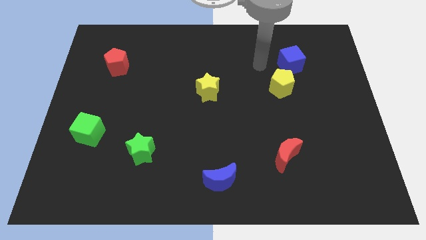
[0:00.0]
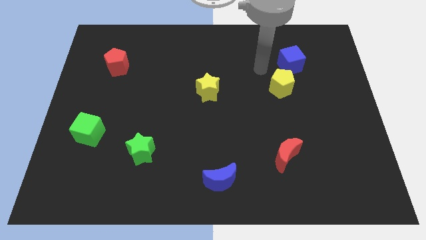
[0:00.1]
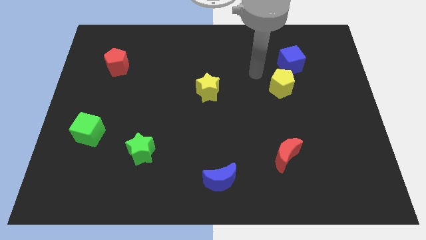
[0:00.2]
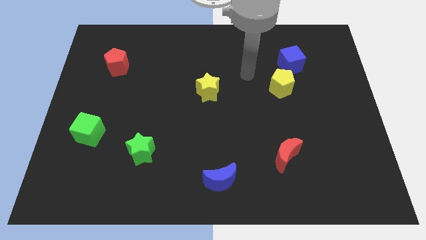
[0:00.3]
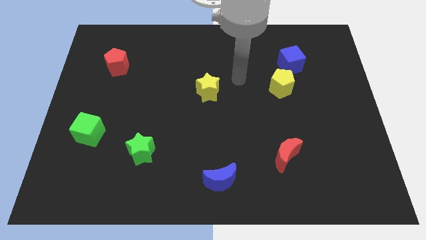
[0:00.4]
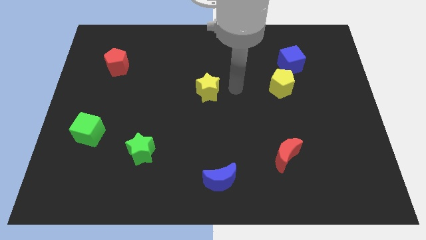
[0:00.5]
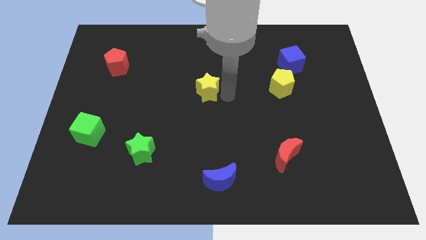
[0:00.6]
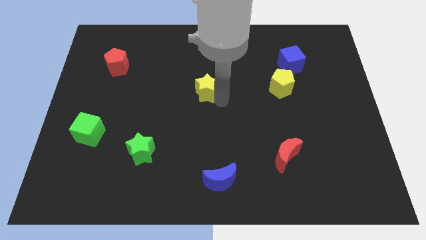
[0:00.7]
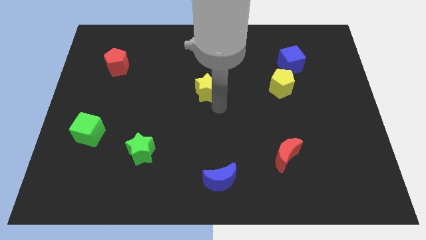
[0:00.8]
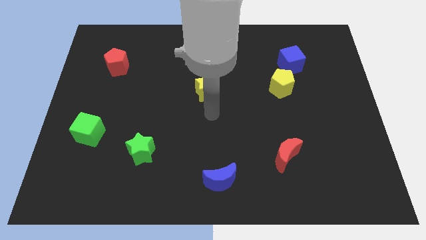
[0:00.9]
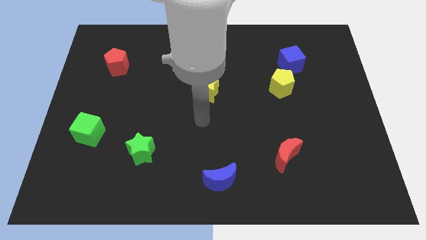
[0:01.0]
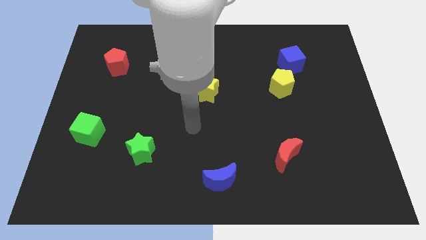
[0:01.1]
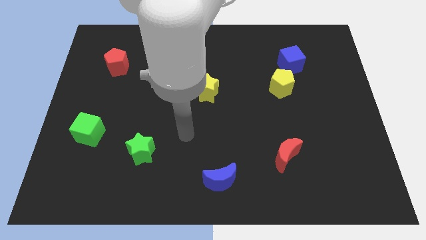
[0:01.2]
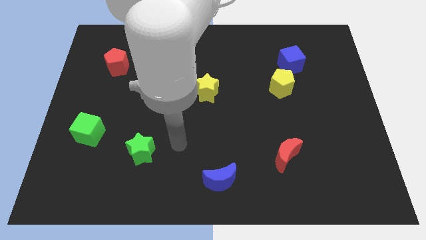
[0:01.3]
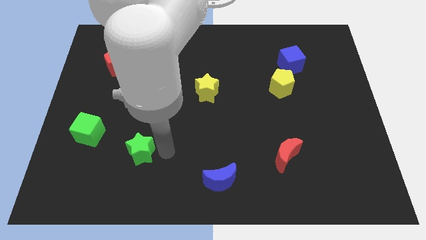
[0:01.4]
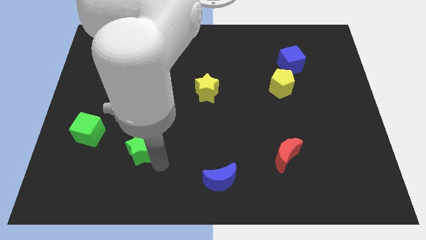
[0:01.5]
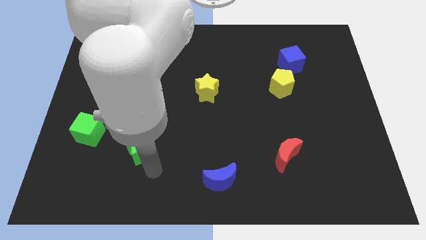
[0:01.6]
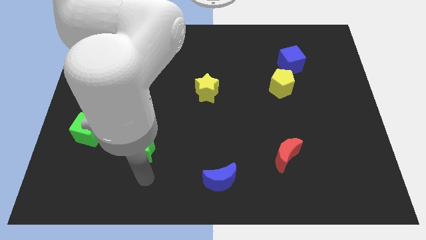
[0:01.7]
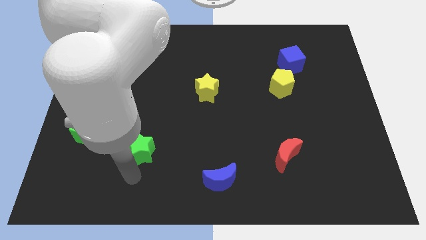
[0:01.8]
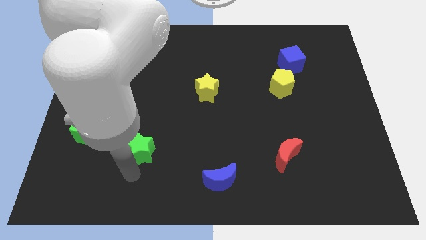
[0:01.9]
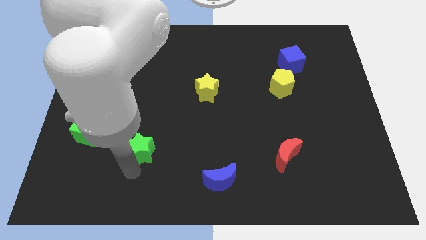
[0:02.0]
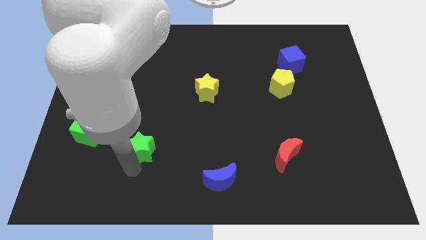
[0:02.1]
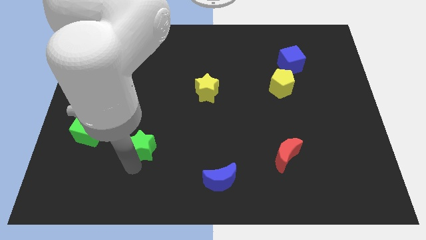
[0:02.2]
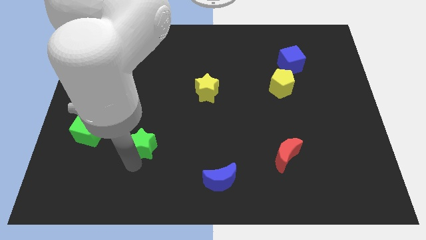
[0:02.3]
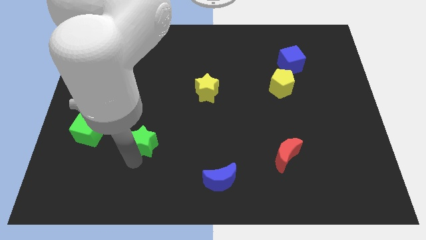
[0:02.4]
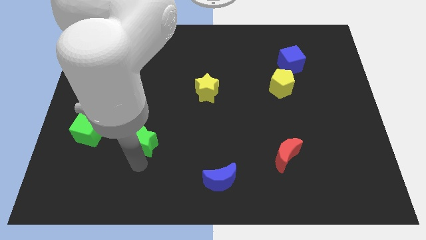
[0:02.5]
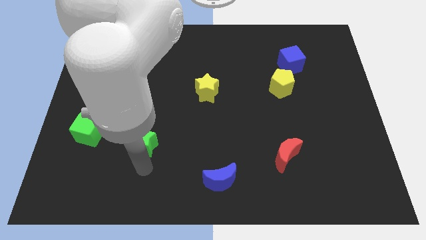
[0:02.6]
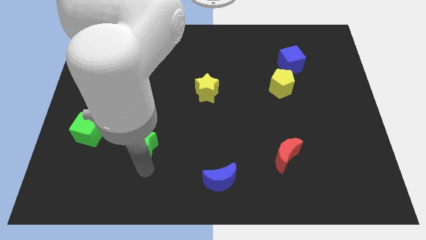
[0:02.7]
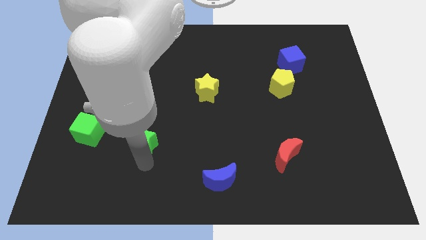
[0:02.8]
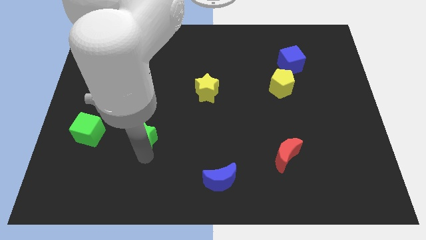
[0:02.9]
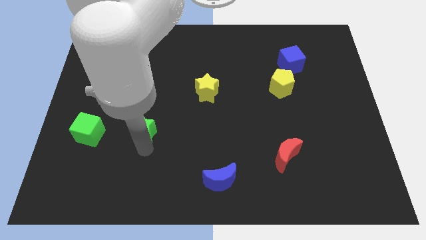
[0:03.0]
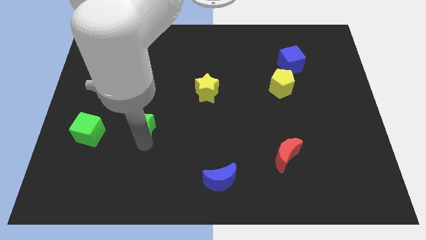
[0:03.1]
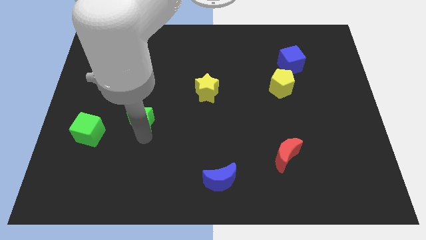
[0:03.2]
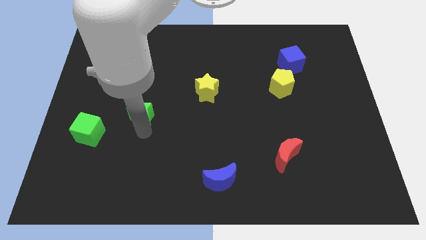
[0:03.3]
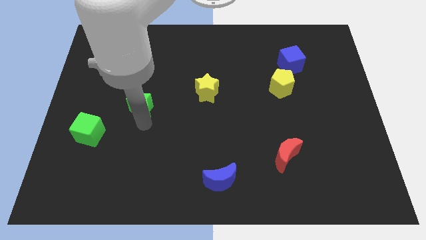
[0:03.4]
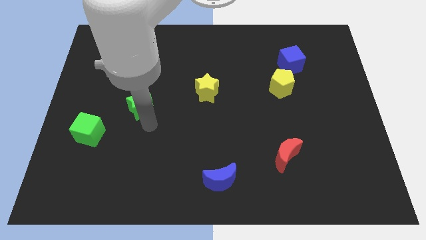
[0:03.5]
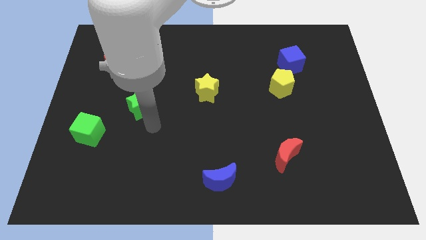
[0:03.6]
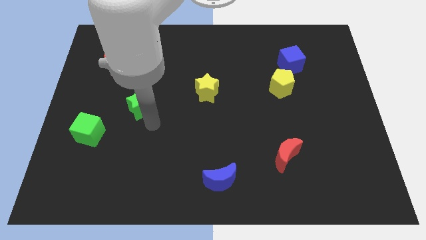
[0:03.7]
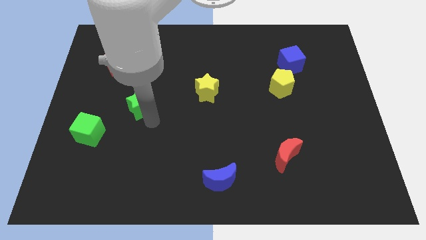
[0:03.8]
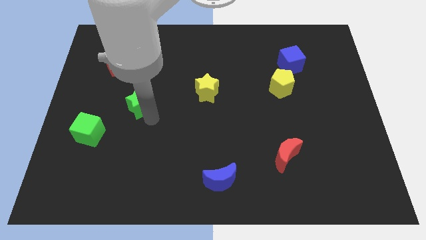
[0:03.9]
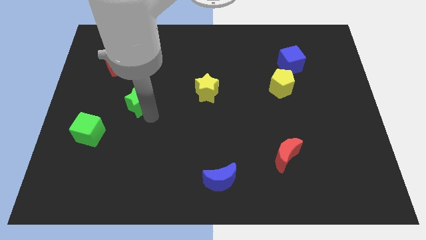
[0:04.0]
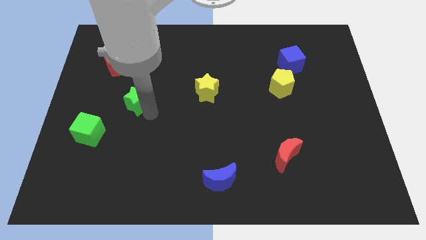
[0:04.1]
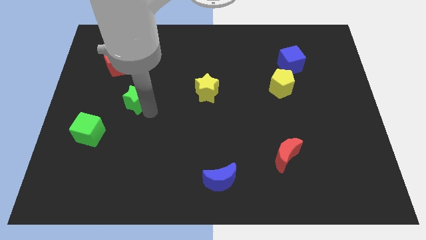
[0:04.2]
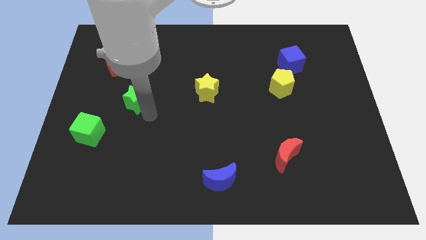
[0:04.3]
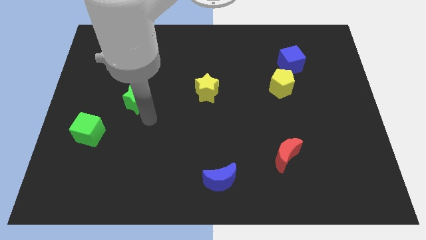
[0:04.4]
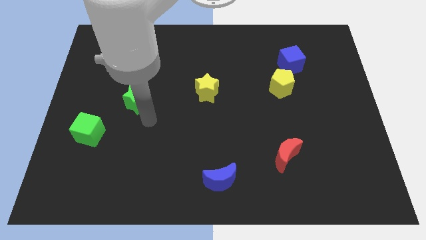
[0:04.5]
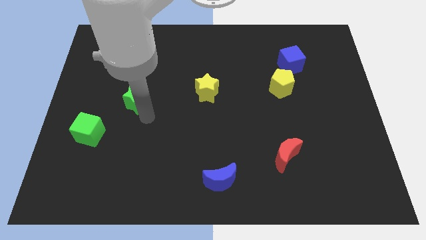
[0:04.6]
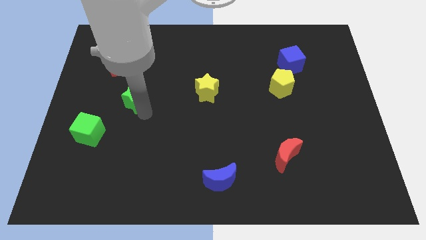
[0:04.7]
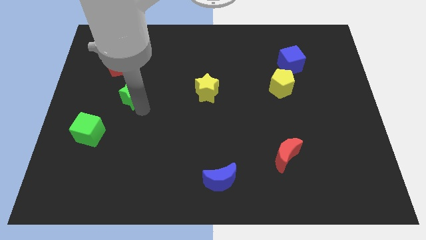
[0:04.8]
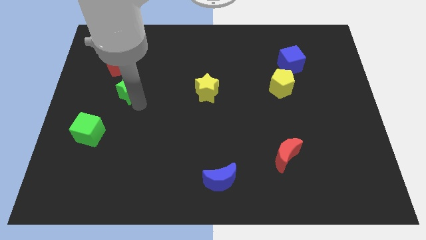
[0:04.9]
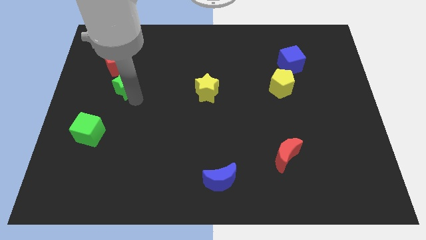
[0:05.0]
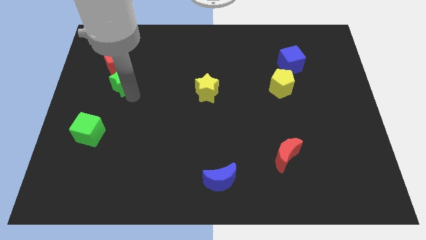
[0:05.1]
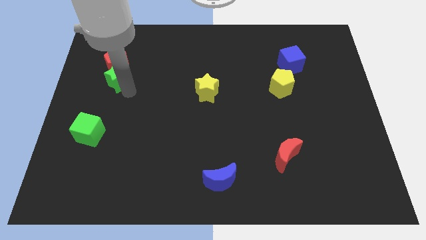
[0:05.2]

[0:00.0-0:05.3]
put the green star towards the red pentagon

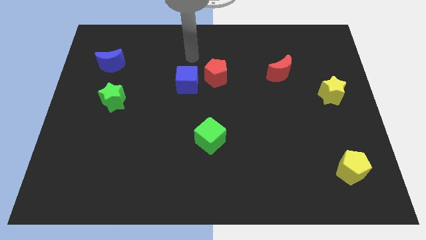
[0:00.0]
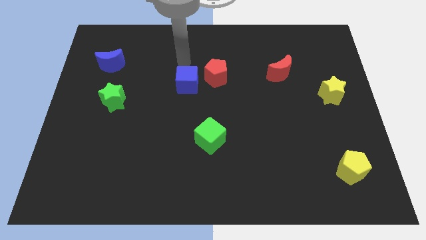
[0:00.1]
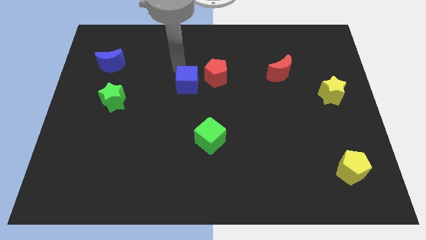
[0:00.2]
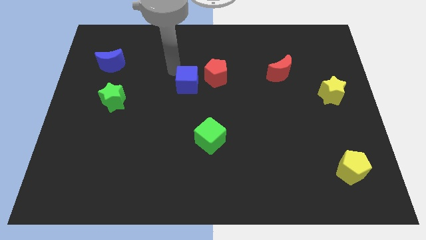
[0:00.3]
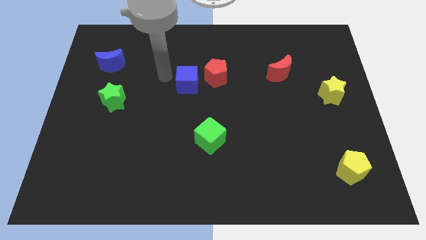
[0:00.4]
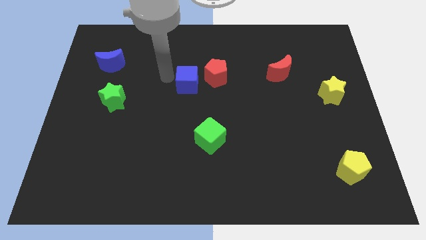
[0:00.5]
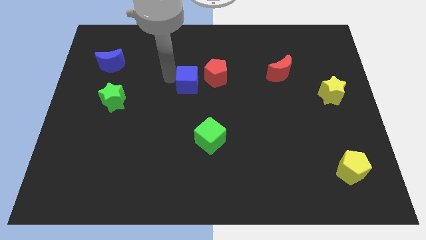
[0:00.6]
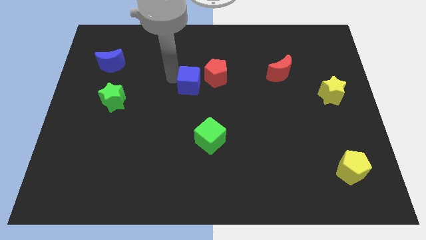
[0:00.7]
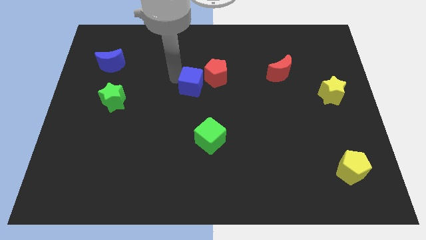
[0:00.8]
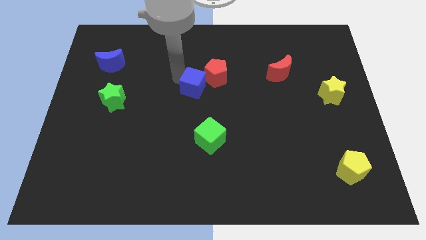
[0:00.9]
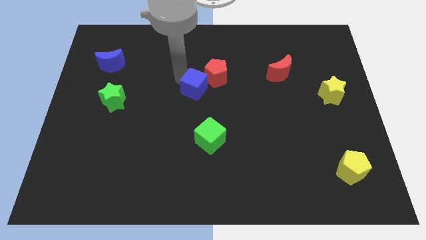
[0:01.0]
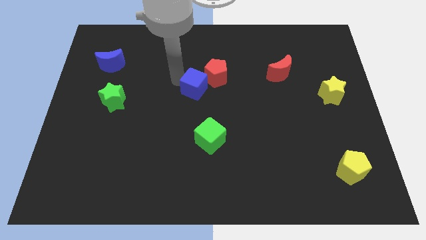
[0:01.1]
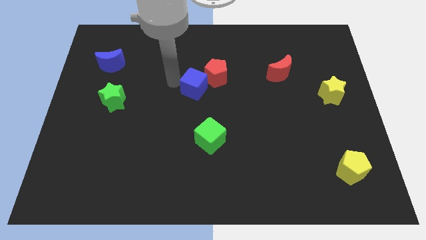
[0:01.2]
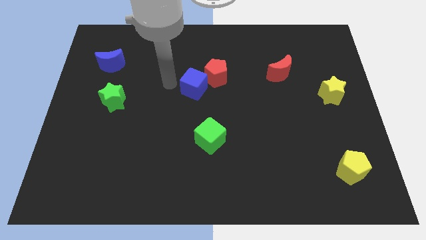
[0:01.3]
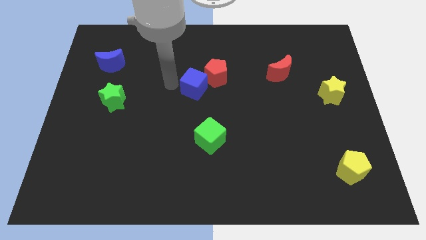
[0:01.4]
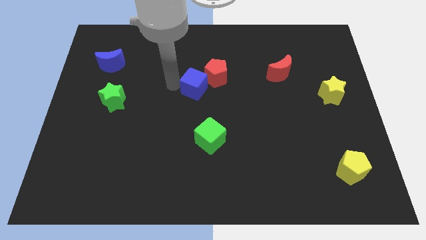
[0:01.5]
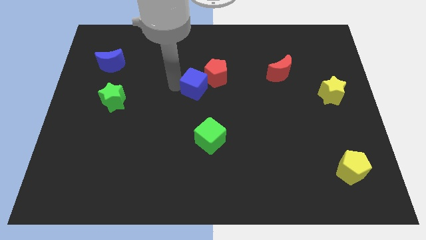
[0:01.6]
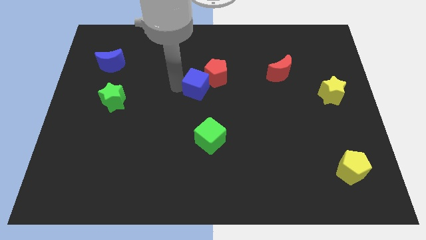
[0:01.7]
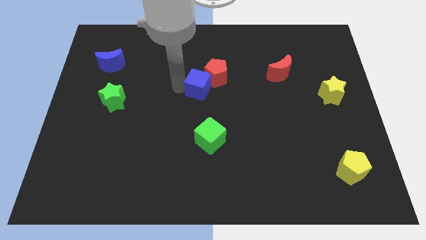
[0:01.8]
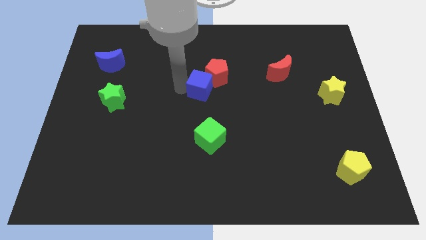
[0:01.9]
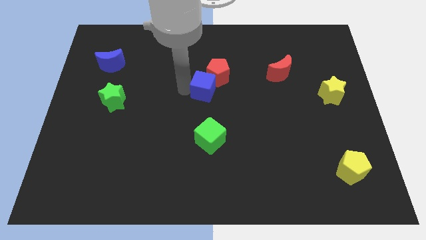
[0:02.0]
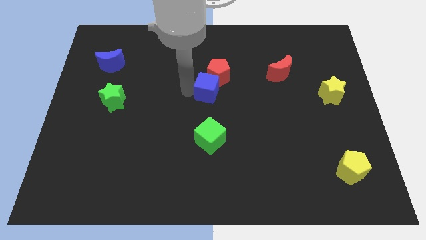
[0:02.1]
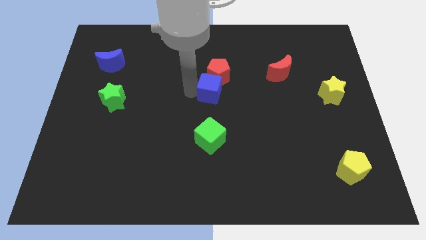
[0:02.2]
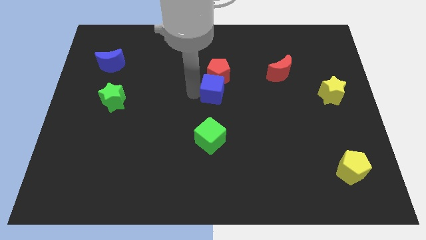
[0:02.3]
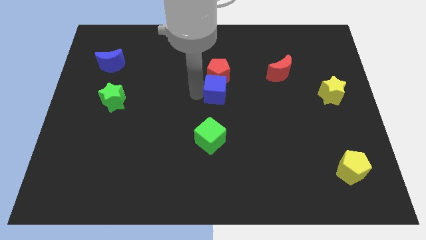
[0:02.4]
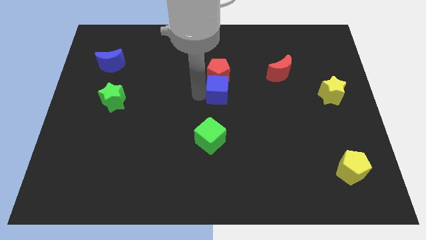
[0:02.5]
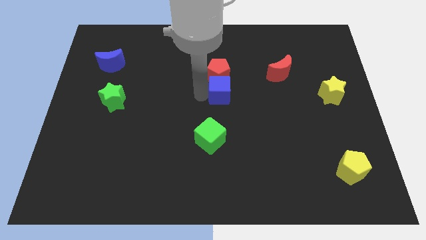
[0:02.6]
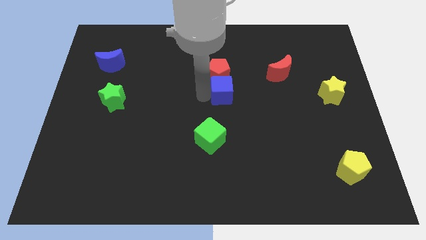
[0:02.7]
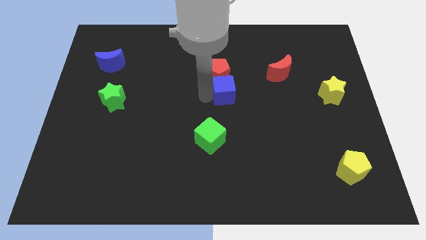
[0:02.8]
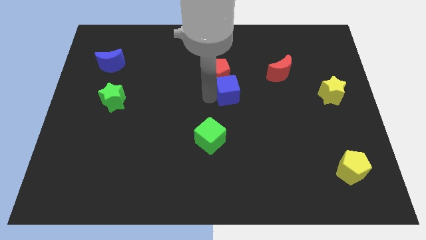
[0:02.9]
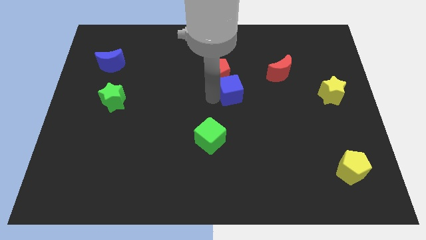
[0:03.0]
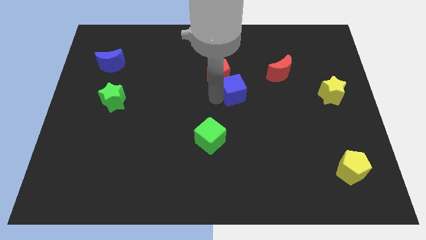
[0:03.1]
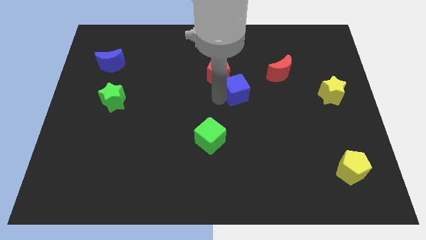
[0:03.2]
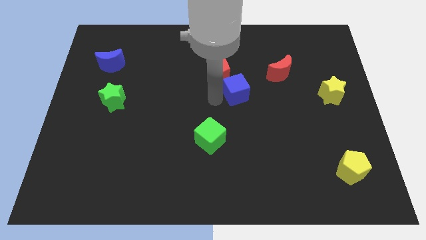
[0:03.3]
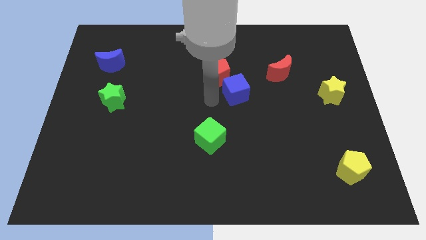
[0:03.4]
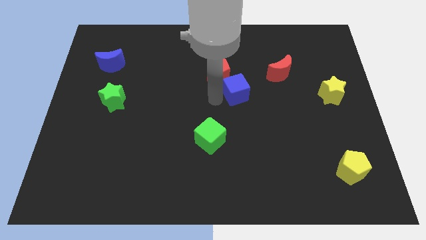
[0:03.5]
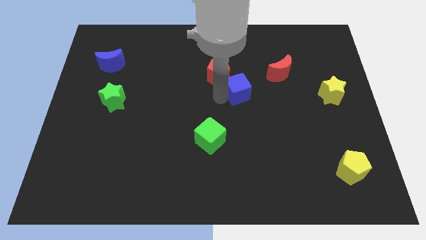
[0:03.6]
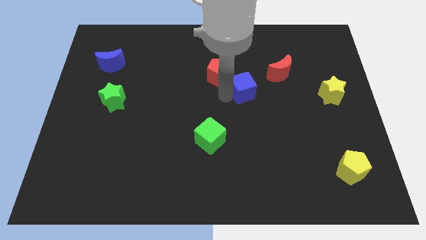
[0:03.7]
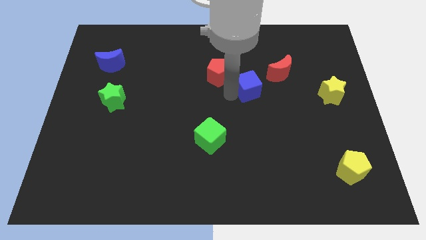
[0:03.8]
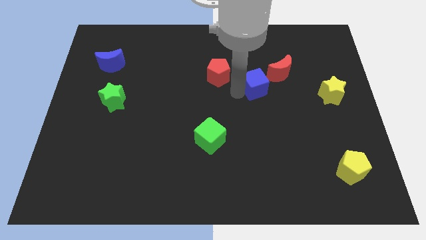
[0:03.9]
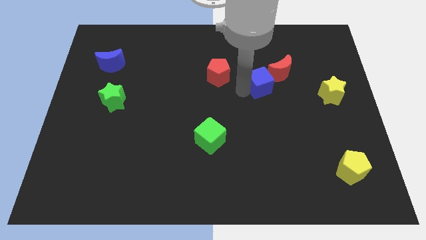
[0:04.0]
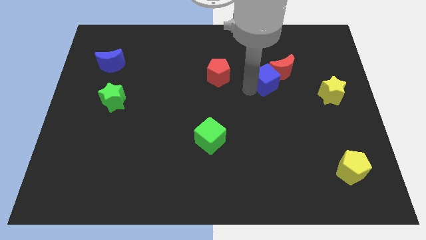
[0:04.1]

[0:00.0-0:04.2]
slide the blue cube to the red moon
